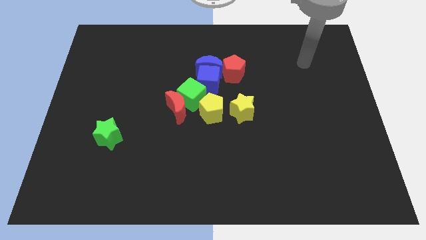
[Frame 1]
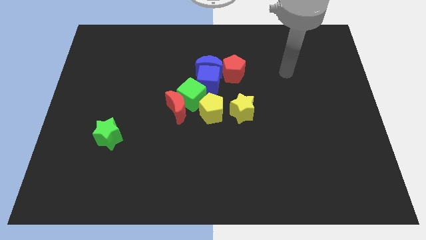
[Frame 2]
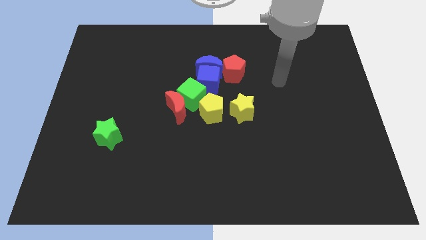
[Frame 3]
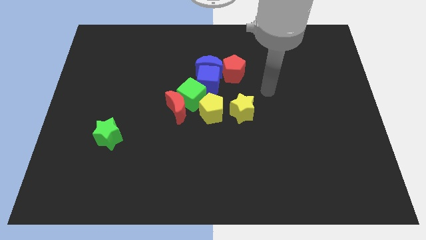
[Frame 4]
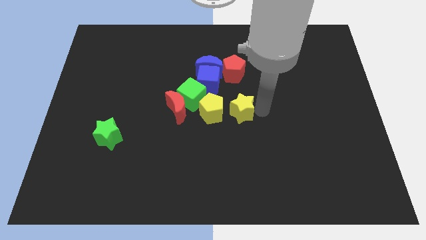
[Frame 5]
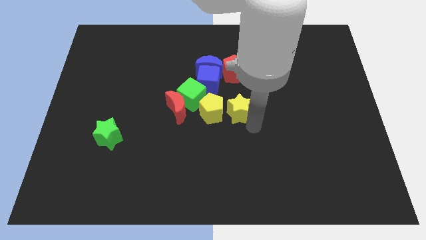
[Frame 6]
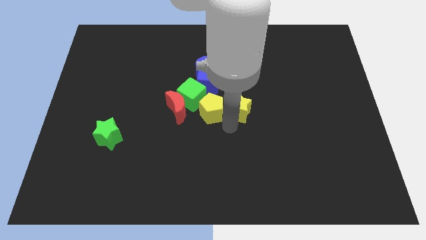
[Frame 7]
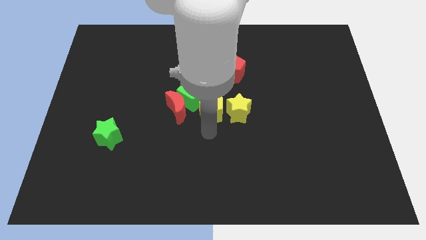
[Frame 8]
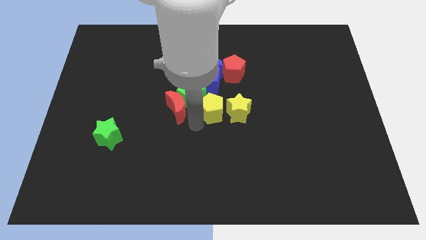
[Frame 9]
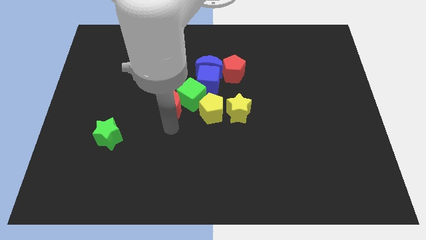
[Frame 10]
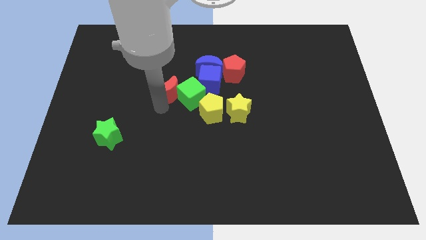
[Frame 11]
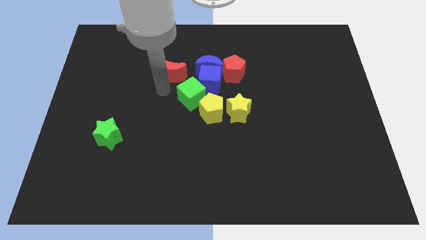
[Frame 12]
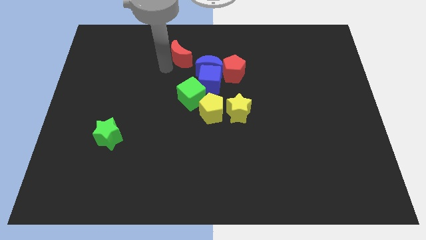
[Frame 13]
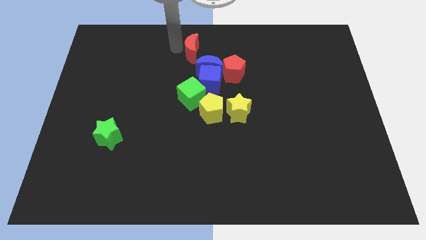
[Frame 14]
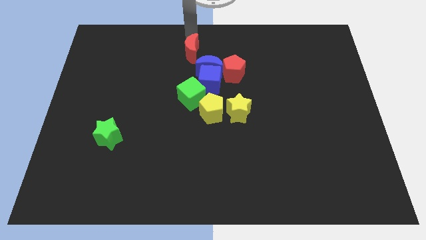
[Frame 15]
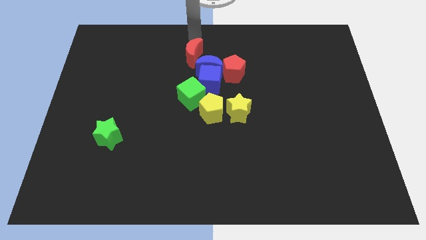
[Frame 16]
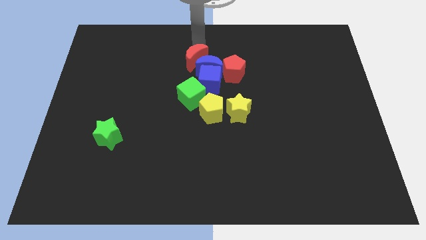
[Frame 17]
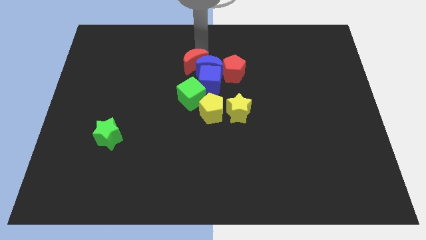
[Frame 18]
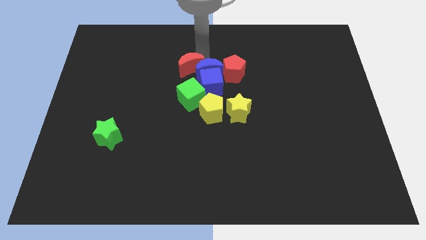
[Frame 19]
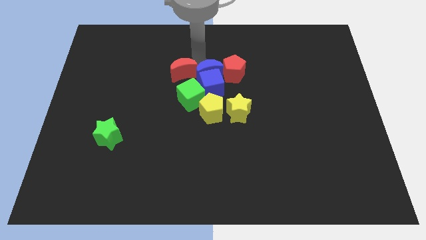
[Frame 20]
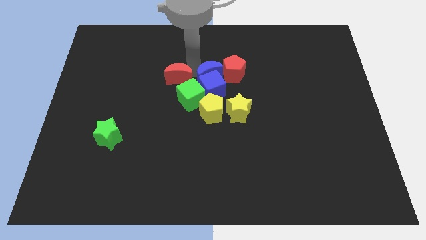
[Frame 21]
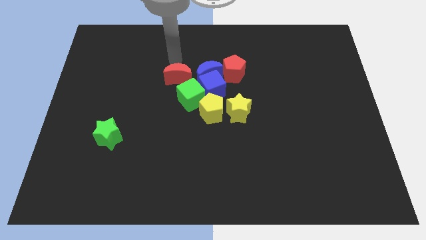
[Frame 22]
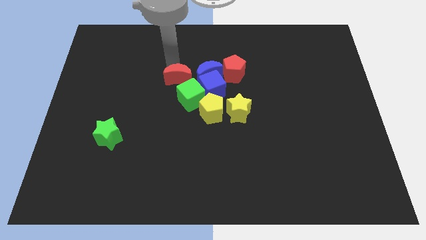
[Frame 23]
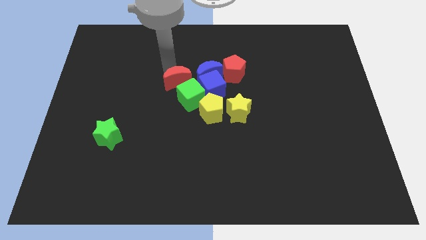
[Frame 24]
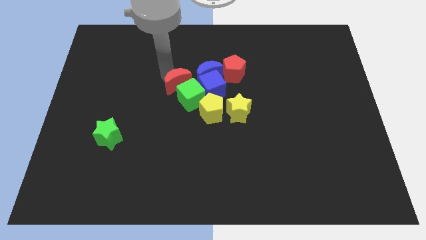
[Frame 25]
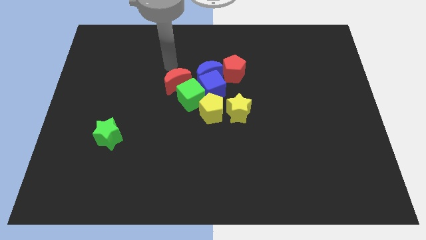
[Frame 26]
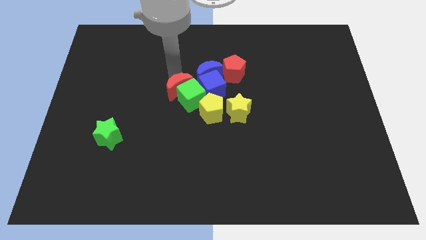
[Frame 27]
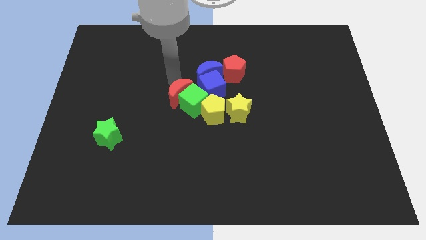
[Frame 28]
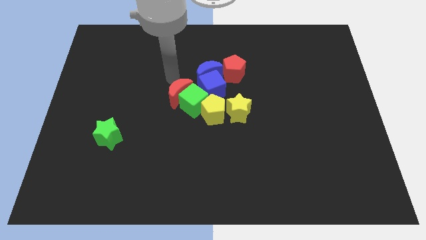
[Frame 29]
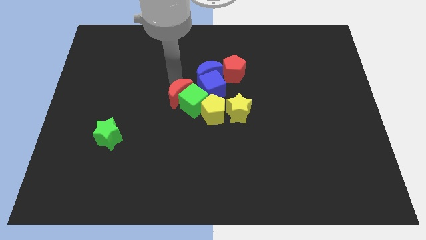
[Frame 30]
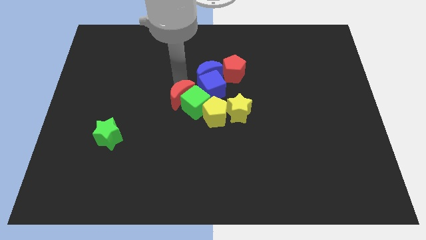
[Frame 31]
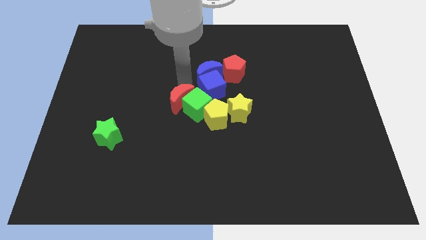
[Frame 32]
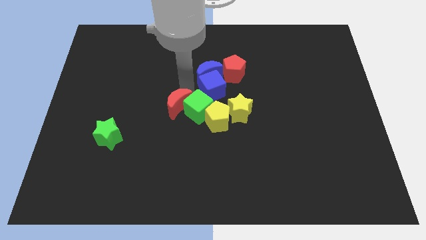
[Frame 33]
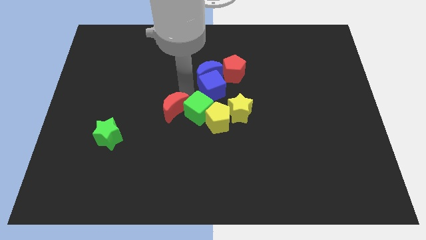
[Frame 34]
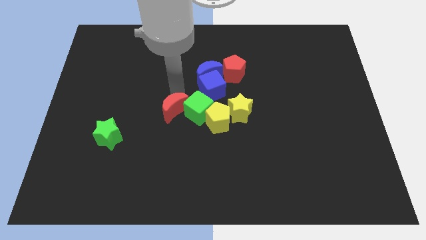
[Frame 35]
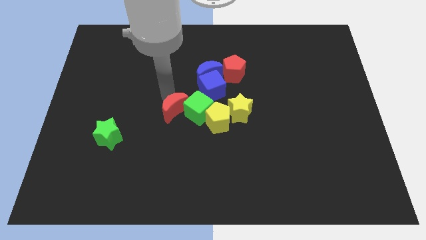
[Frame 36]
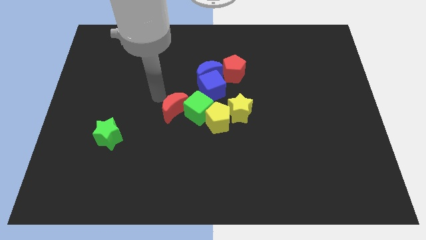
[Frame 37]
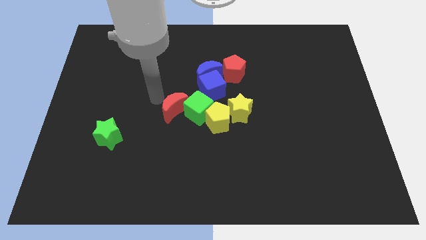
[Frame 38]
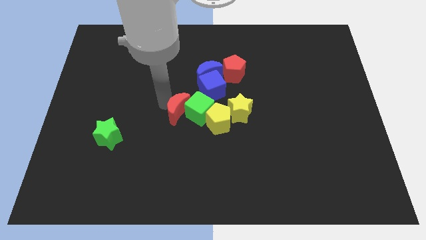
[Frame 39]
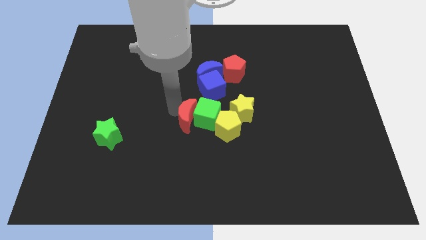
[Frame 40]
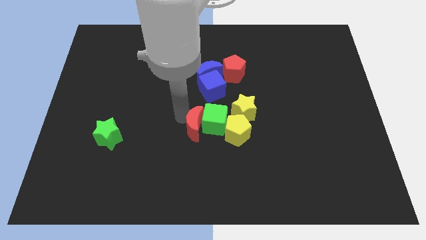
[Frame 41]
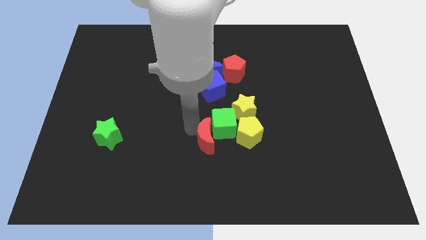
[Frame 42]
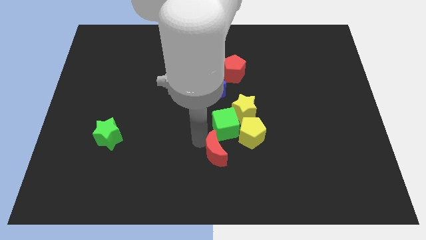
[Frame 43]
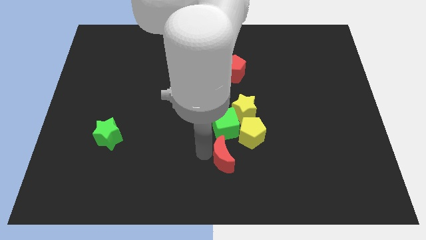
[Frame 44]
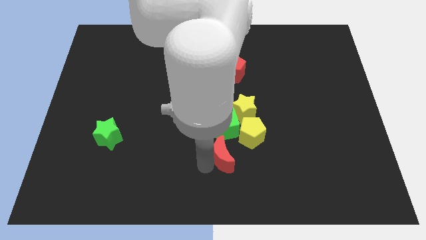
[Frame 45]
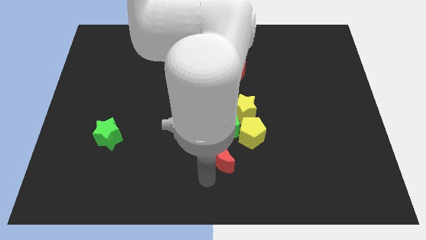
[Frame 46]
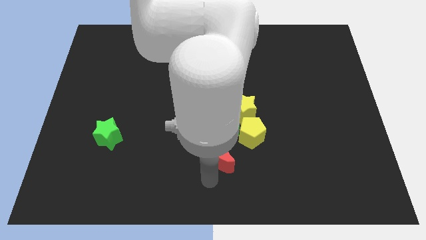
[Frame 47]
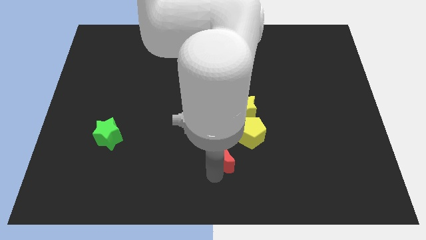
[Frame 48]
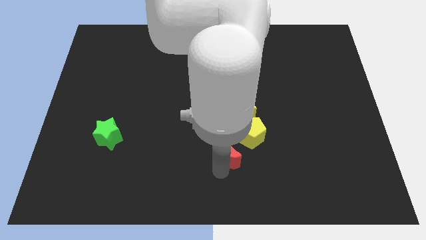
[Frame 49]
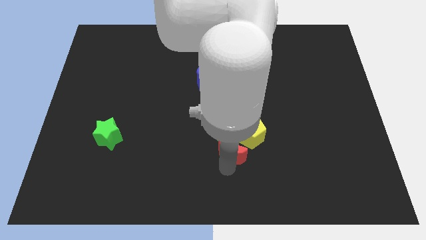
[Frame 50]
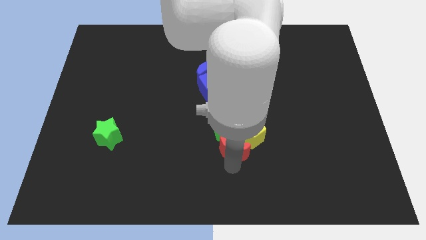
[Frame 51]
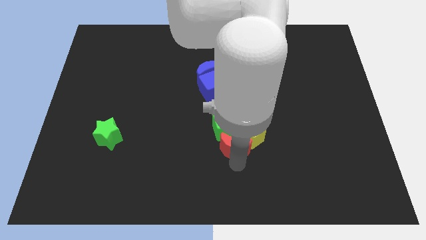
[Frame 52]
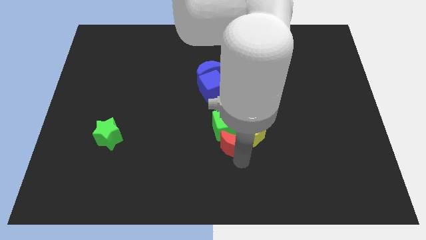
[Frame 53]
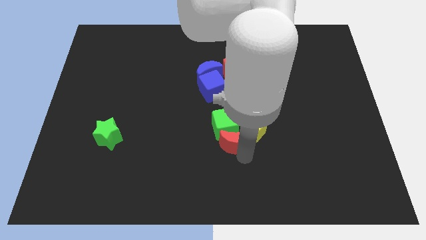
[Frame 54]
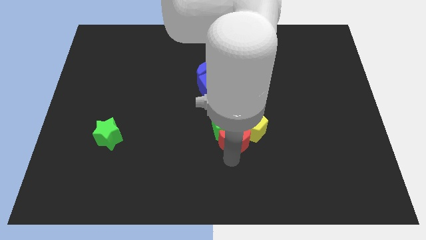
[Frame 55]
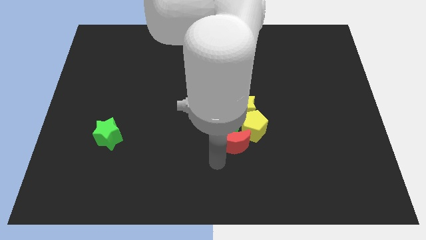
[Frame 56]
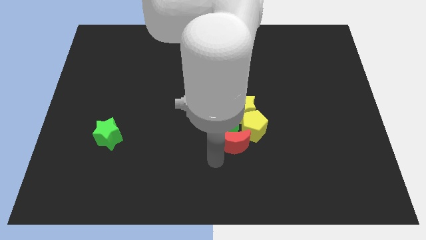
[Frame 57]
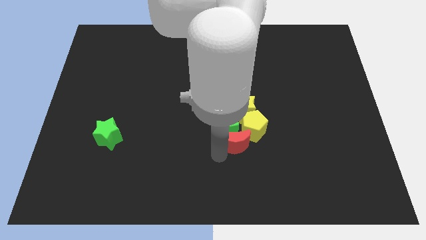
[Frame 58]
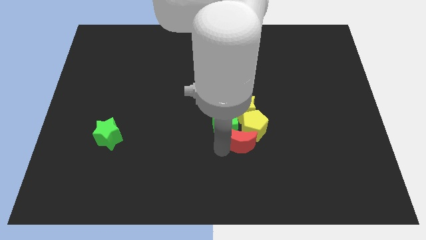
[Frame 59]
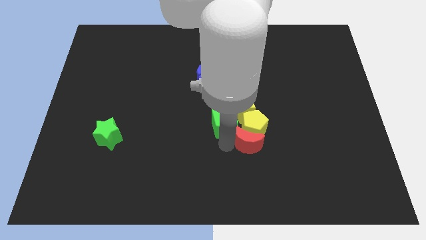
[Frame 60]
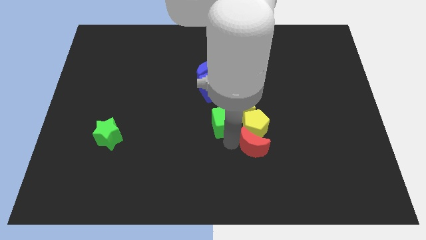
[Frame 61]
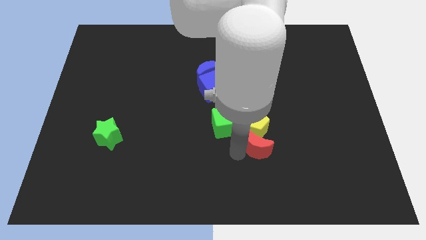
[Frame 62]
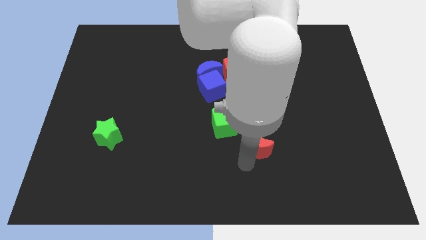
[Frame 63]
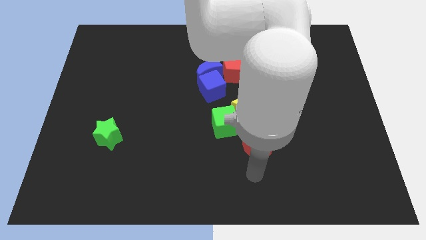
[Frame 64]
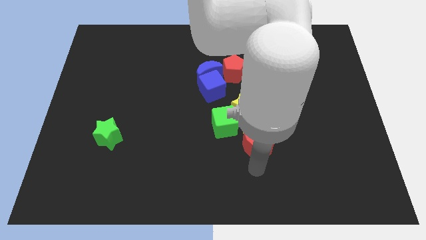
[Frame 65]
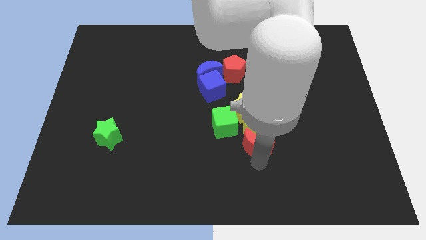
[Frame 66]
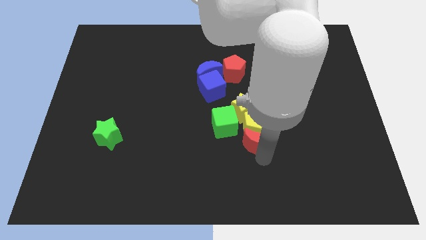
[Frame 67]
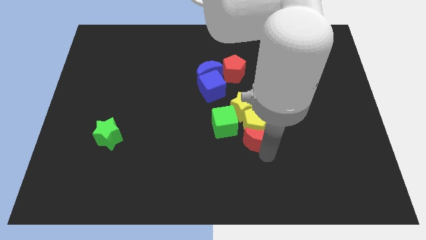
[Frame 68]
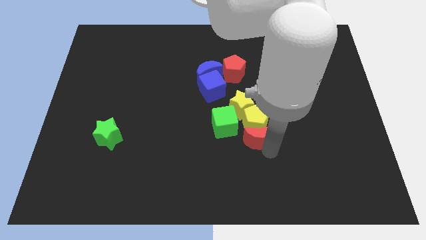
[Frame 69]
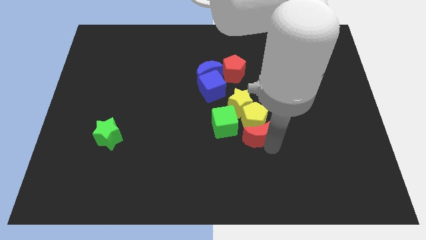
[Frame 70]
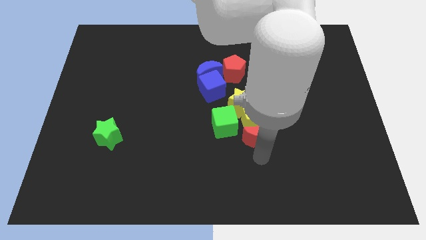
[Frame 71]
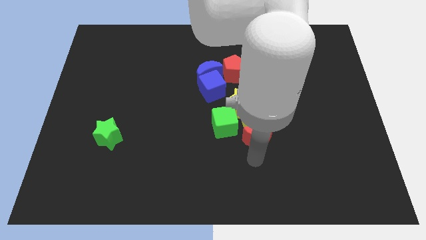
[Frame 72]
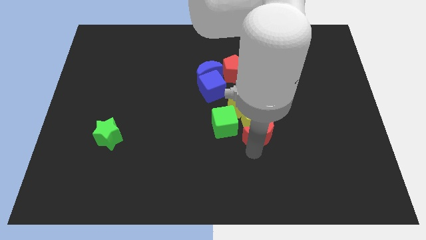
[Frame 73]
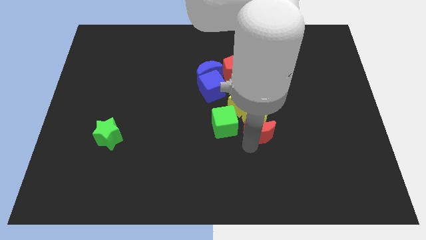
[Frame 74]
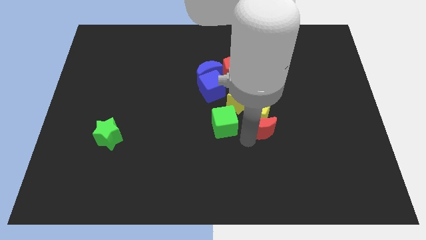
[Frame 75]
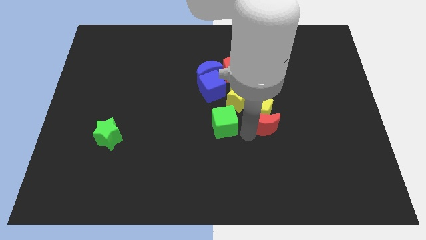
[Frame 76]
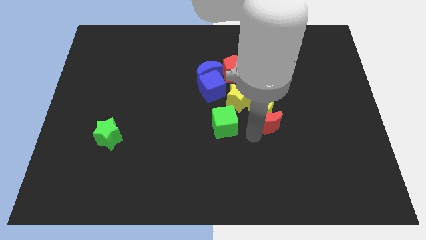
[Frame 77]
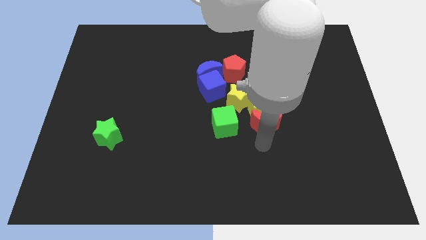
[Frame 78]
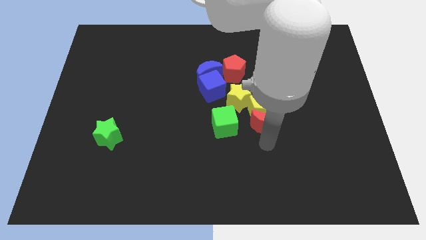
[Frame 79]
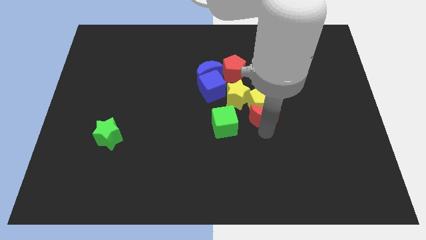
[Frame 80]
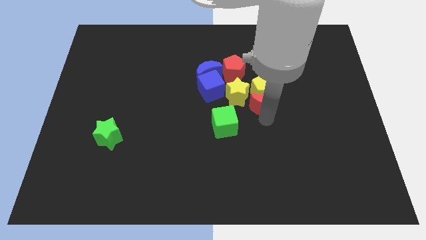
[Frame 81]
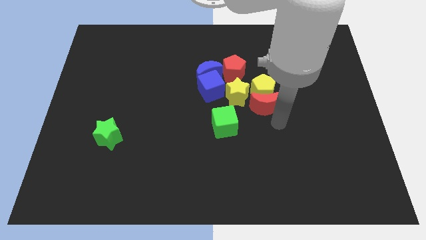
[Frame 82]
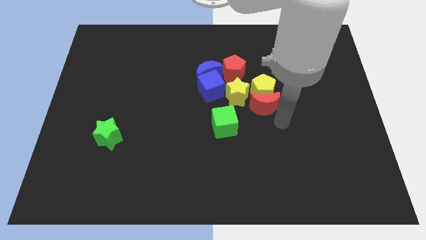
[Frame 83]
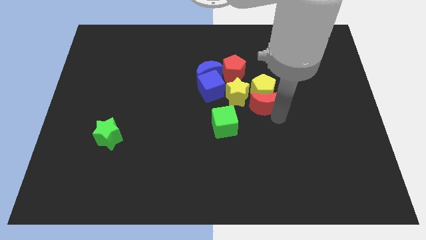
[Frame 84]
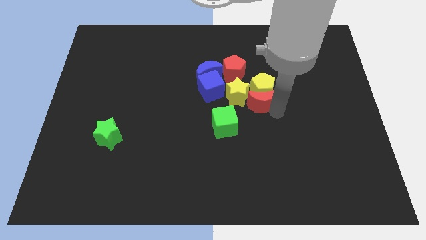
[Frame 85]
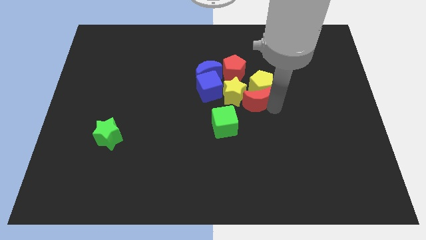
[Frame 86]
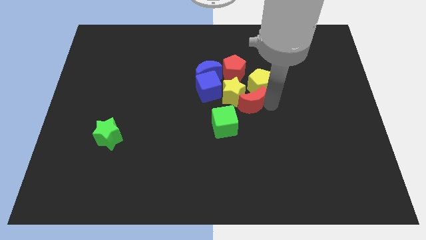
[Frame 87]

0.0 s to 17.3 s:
move the red moon to the bottom right of the blue cube
